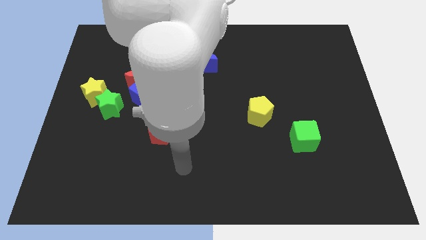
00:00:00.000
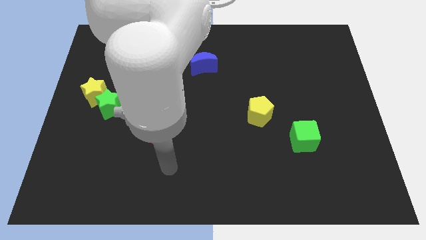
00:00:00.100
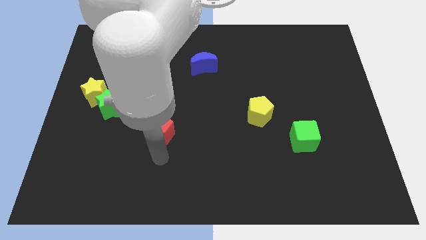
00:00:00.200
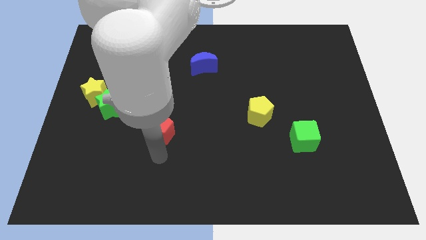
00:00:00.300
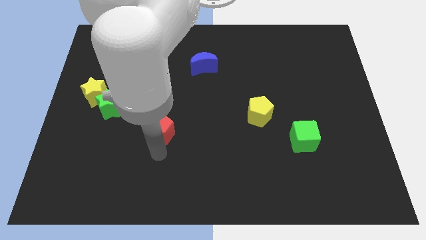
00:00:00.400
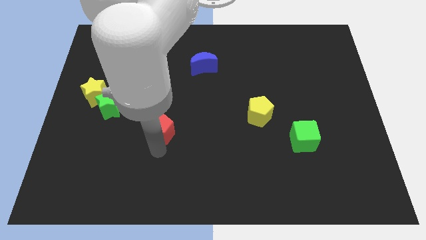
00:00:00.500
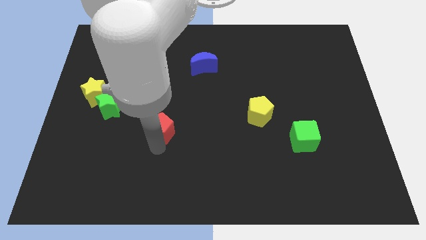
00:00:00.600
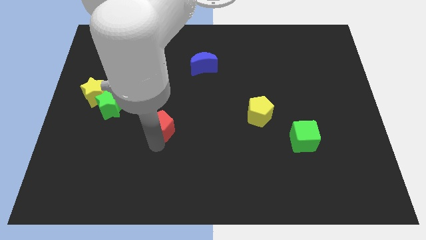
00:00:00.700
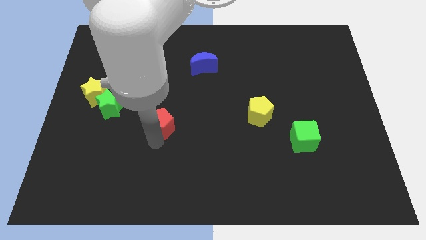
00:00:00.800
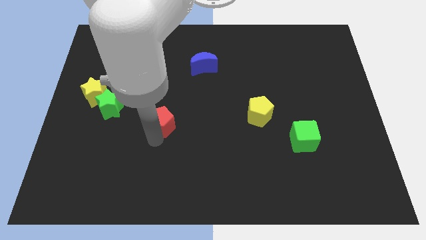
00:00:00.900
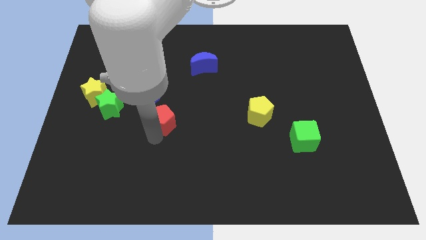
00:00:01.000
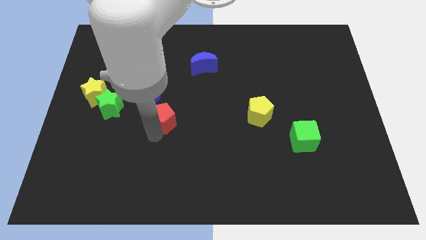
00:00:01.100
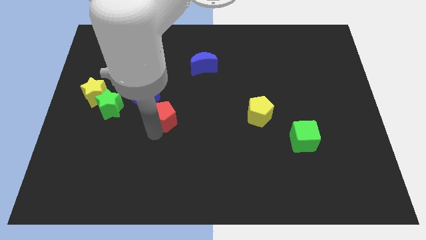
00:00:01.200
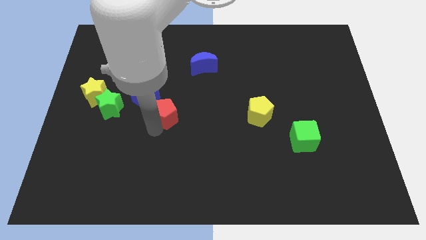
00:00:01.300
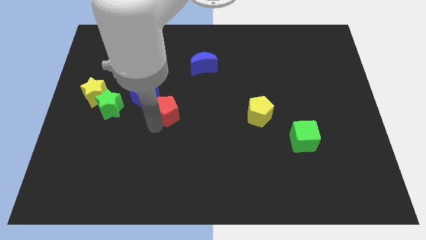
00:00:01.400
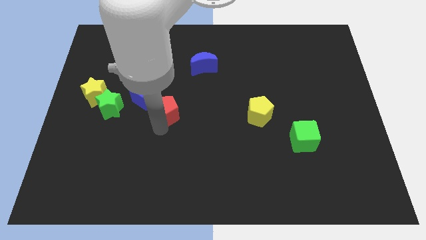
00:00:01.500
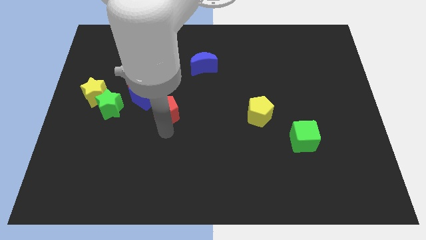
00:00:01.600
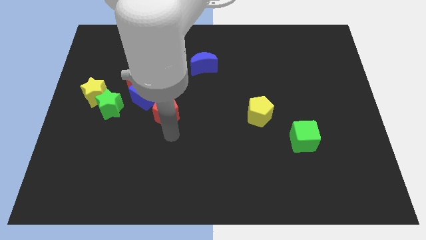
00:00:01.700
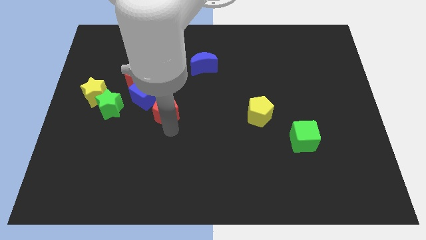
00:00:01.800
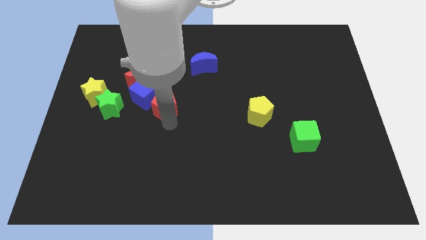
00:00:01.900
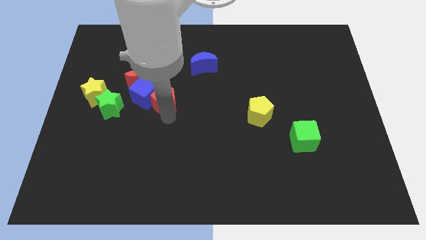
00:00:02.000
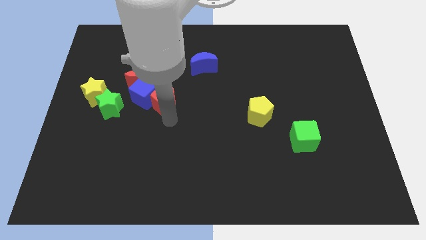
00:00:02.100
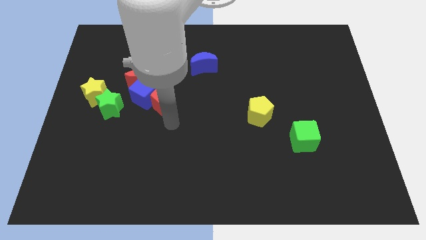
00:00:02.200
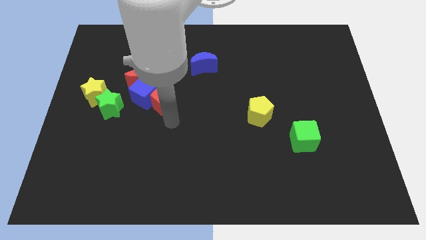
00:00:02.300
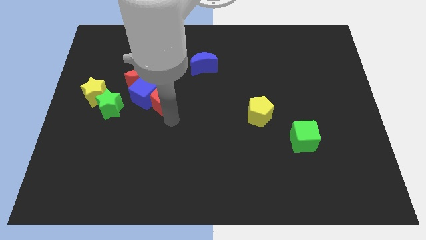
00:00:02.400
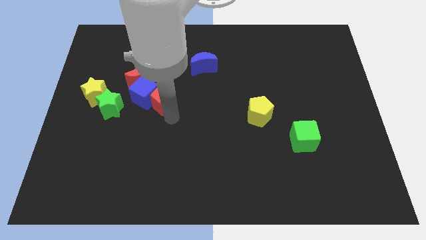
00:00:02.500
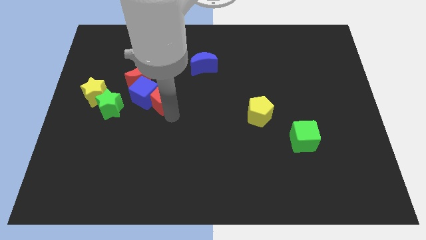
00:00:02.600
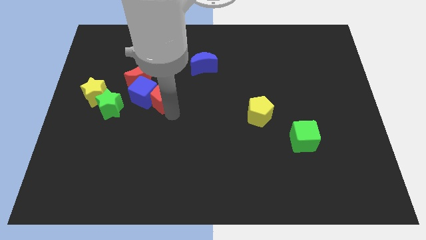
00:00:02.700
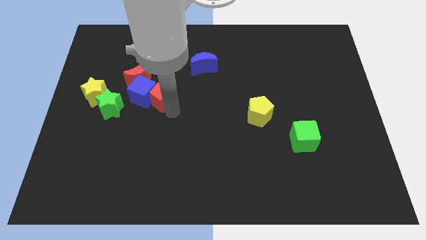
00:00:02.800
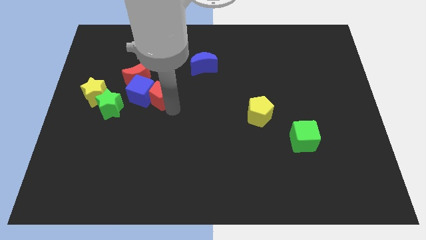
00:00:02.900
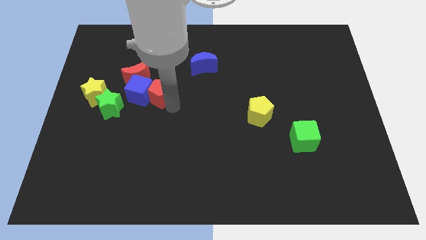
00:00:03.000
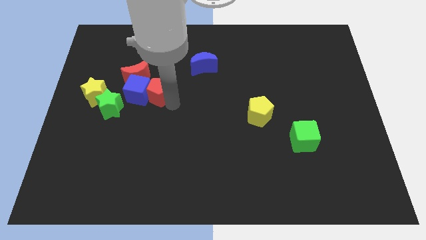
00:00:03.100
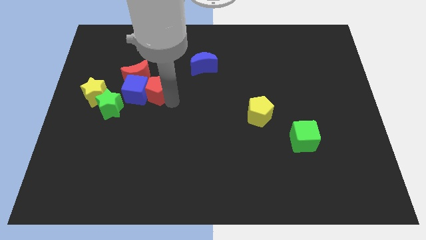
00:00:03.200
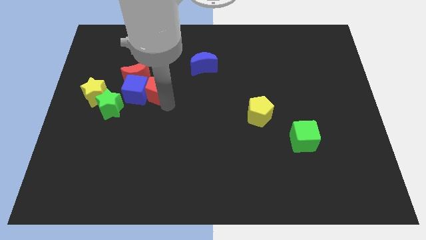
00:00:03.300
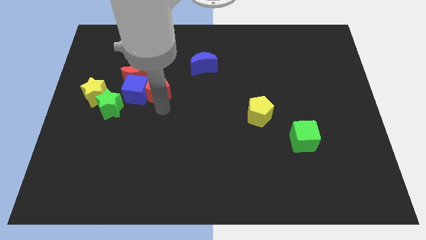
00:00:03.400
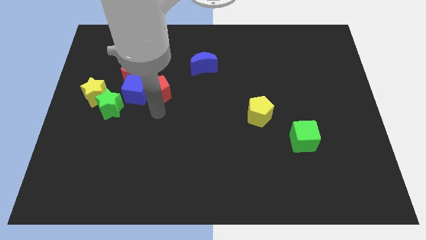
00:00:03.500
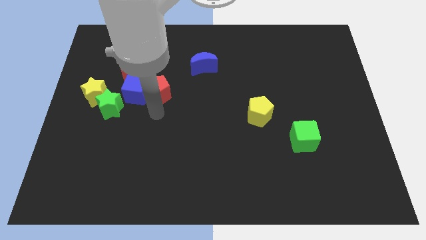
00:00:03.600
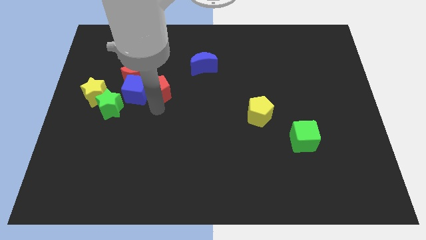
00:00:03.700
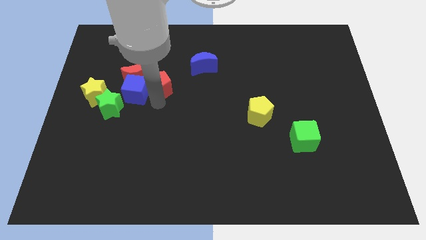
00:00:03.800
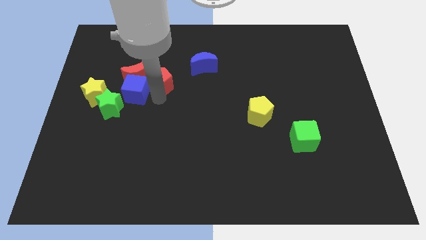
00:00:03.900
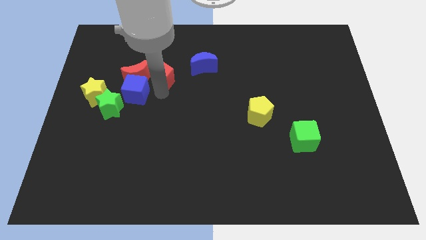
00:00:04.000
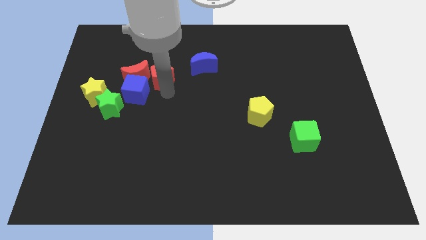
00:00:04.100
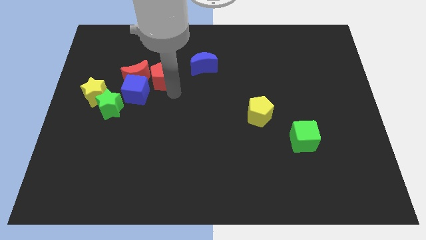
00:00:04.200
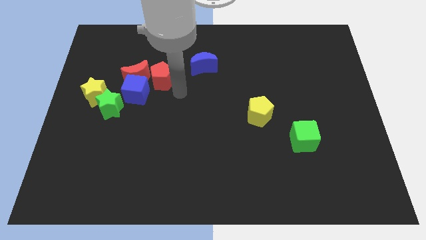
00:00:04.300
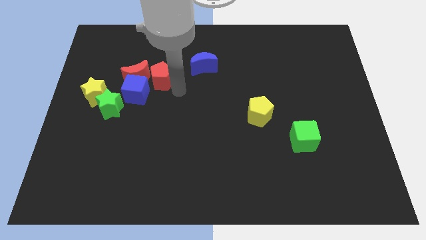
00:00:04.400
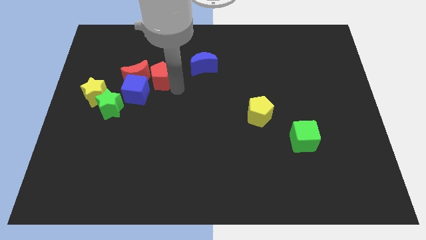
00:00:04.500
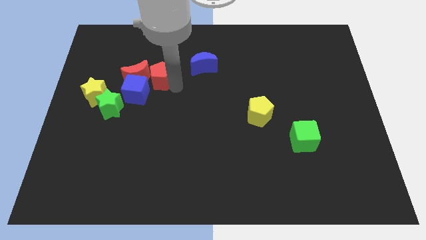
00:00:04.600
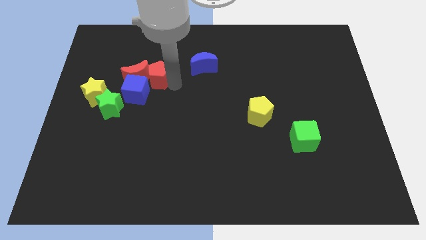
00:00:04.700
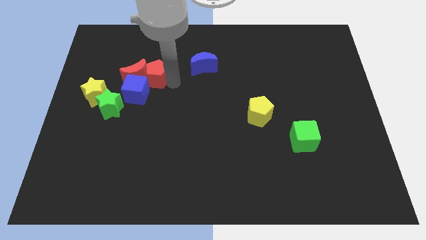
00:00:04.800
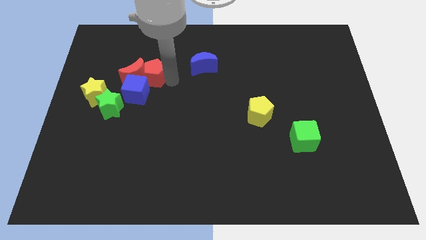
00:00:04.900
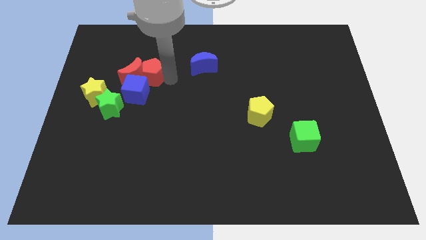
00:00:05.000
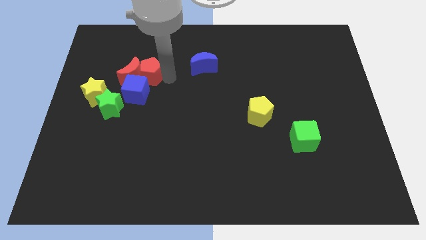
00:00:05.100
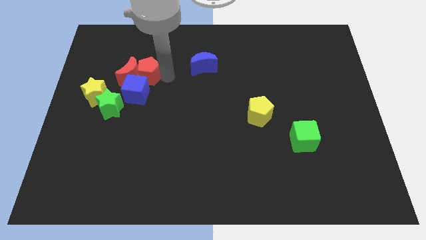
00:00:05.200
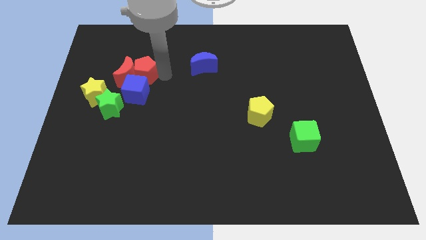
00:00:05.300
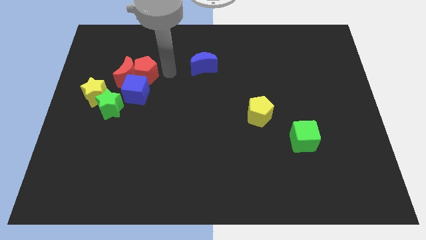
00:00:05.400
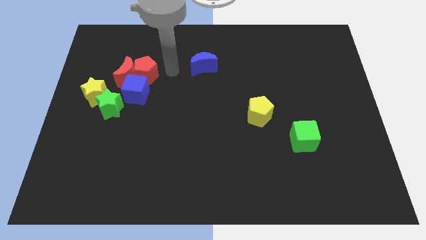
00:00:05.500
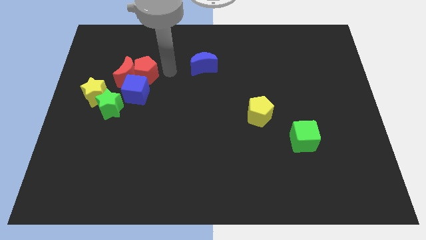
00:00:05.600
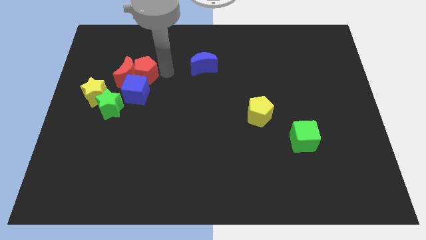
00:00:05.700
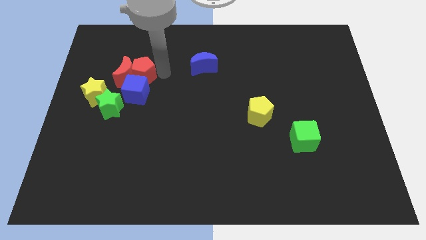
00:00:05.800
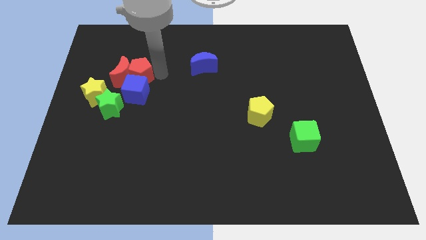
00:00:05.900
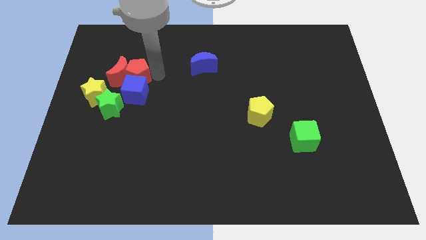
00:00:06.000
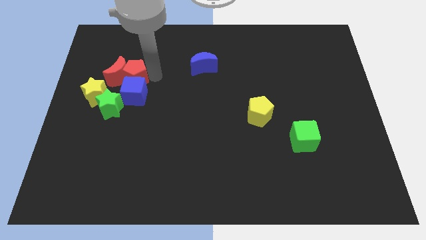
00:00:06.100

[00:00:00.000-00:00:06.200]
move the red pentagon to the top of the green star
